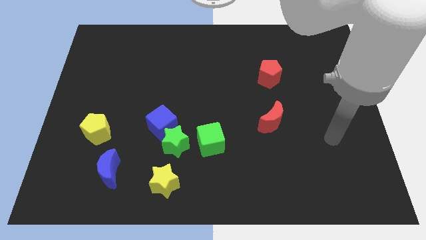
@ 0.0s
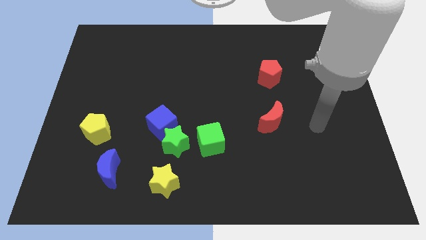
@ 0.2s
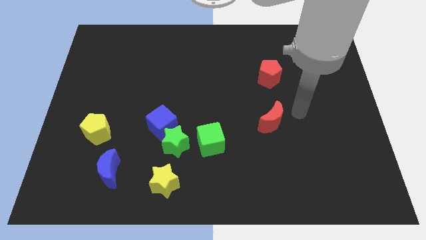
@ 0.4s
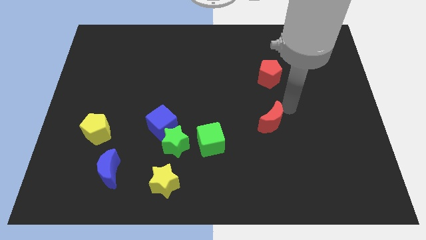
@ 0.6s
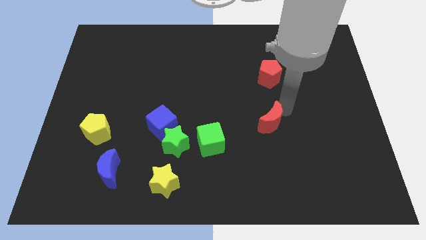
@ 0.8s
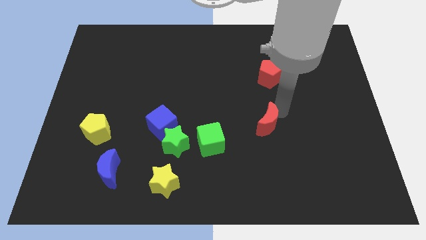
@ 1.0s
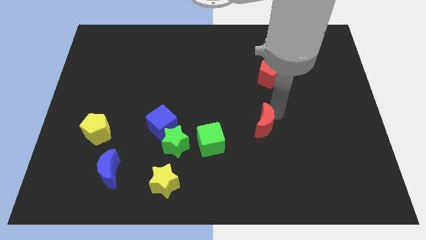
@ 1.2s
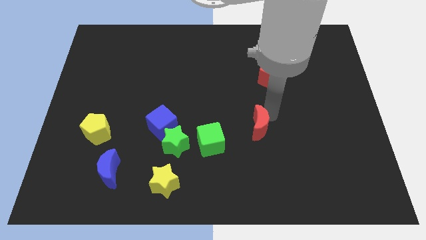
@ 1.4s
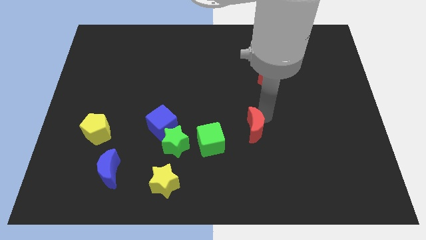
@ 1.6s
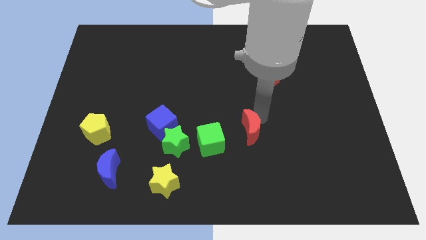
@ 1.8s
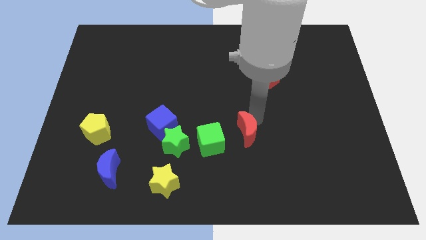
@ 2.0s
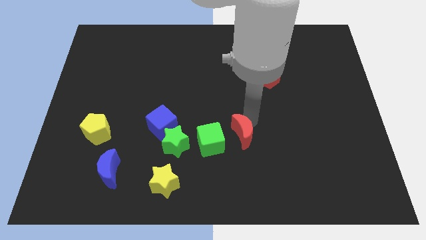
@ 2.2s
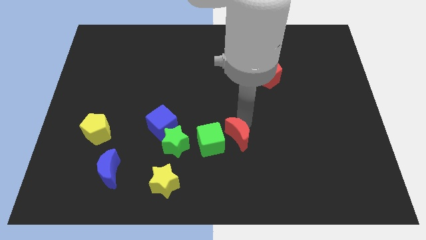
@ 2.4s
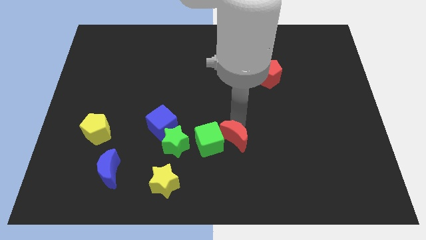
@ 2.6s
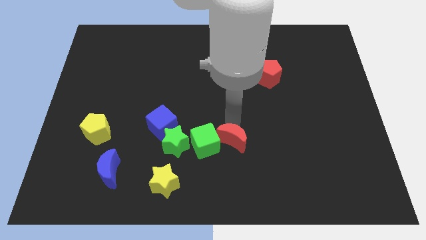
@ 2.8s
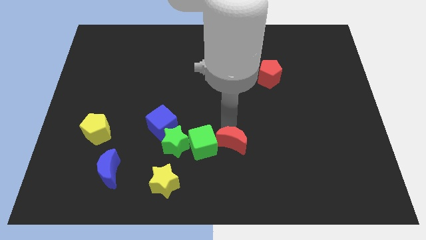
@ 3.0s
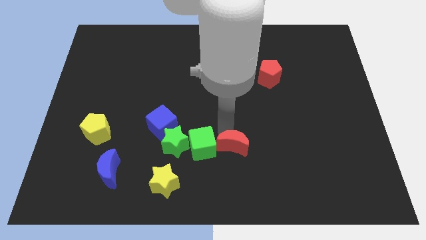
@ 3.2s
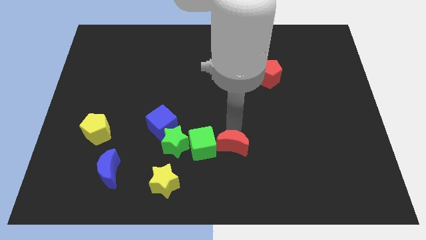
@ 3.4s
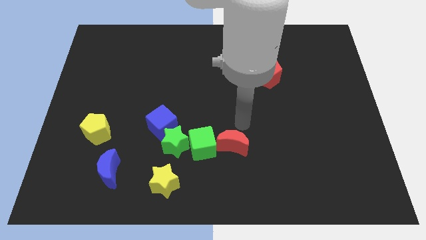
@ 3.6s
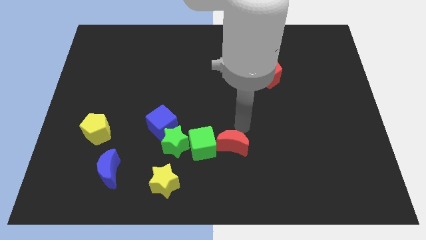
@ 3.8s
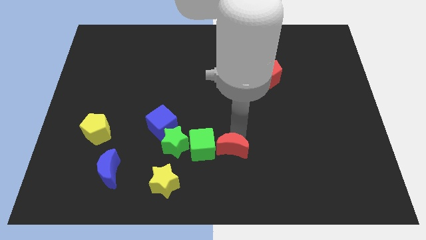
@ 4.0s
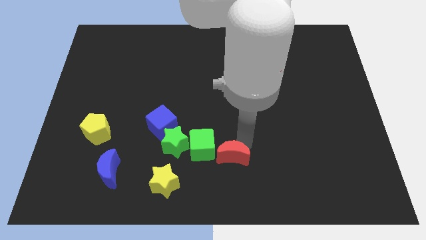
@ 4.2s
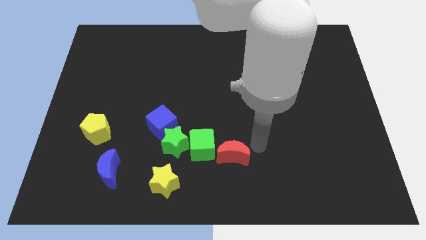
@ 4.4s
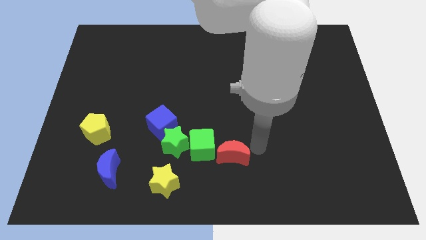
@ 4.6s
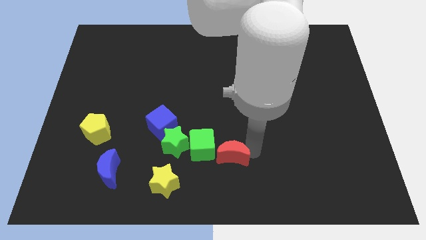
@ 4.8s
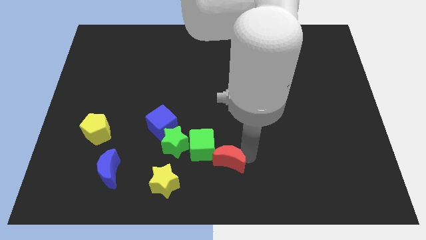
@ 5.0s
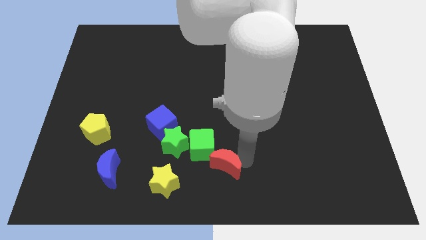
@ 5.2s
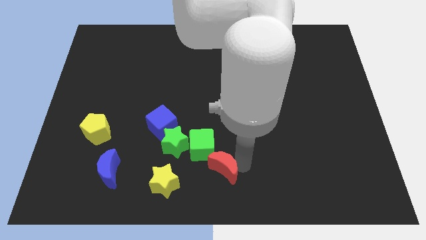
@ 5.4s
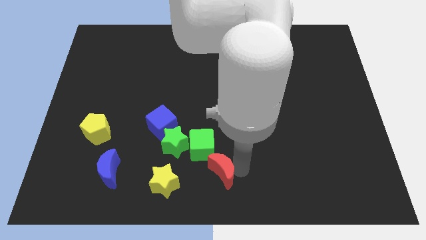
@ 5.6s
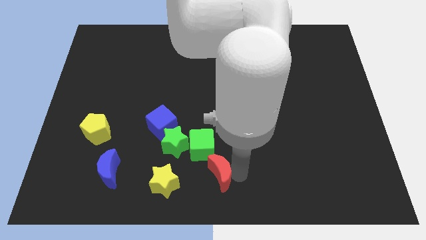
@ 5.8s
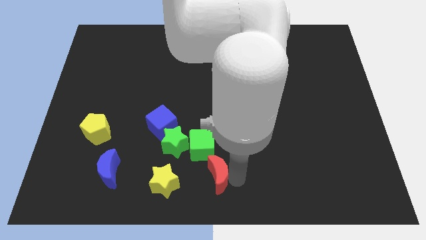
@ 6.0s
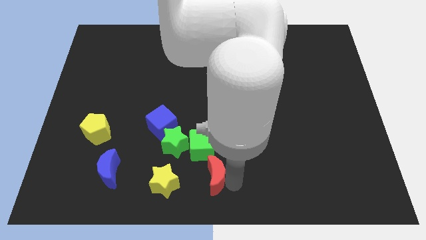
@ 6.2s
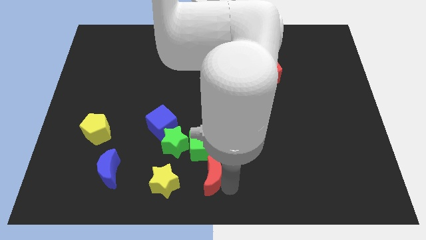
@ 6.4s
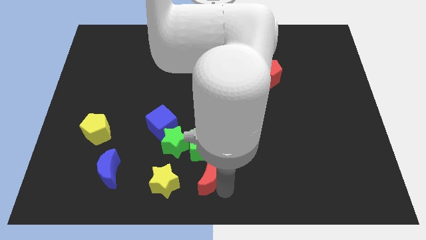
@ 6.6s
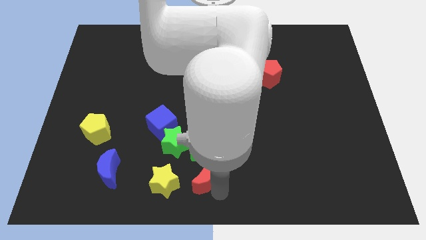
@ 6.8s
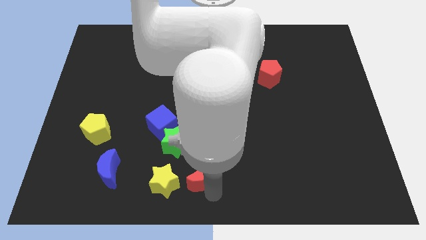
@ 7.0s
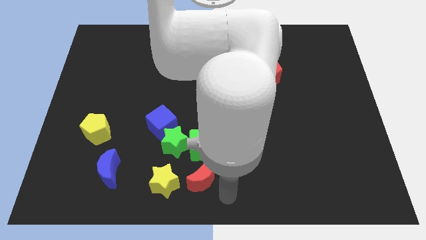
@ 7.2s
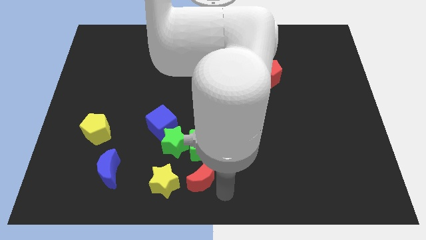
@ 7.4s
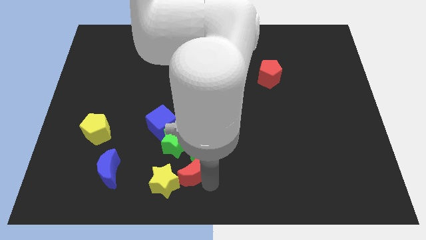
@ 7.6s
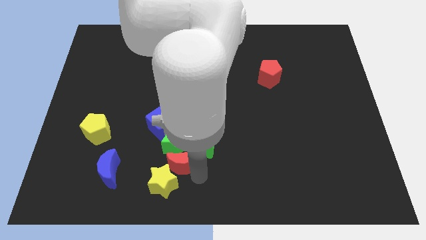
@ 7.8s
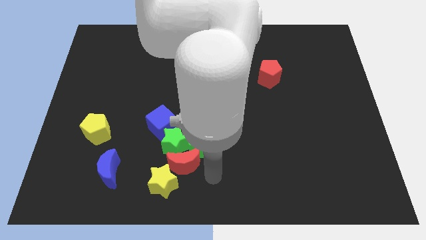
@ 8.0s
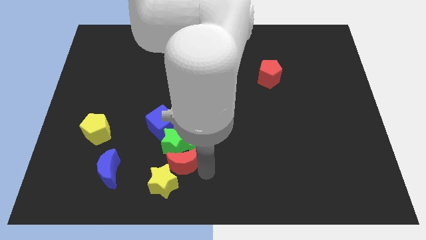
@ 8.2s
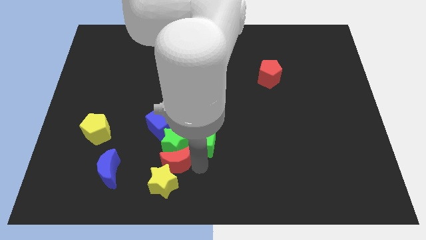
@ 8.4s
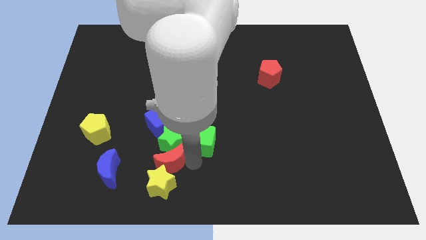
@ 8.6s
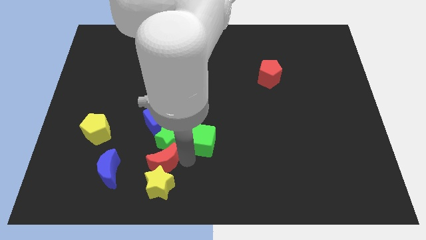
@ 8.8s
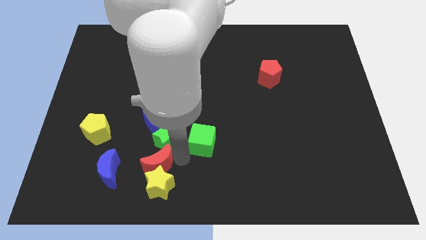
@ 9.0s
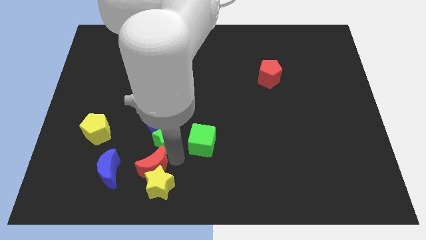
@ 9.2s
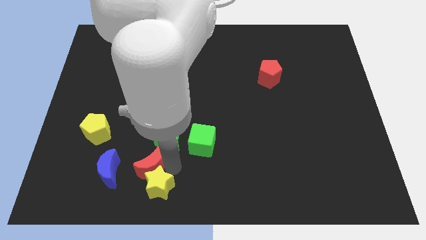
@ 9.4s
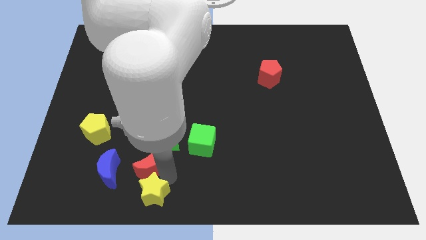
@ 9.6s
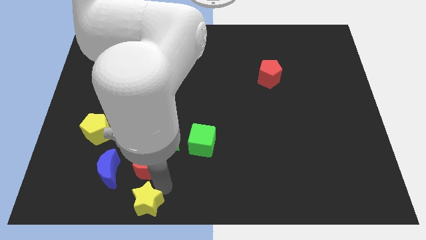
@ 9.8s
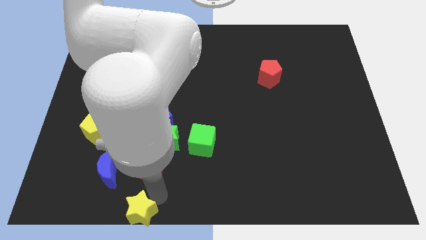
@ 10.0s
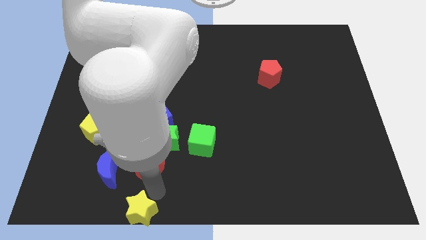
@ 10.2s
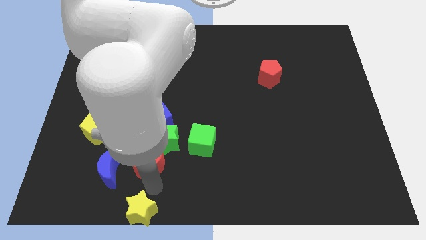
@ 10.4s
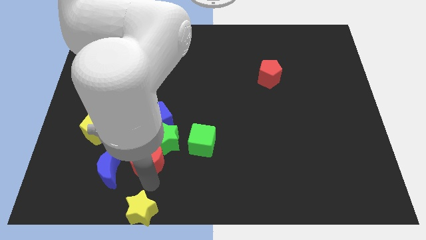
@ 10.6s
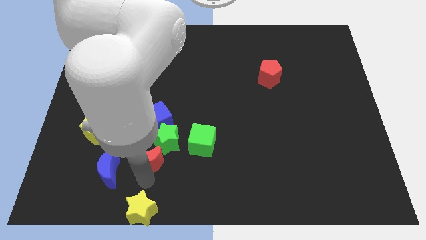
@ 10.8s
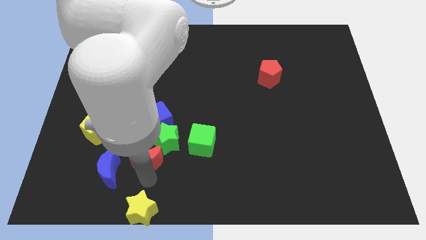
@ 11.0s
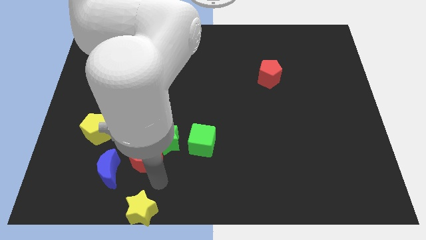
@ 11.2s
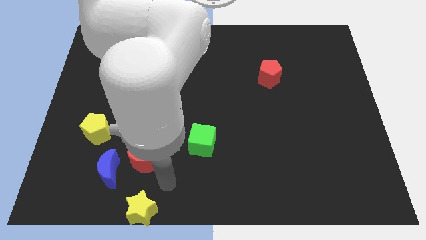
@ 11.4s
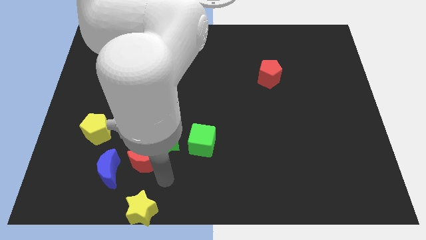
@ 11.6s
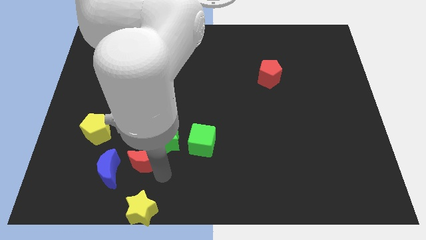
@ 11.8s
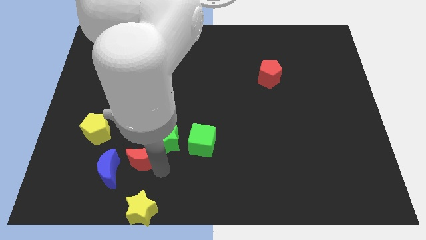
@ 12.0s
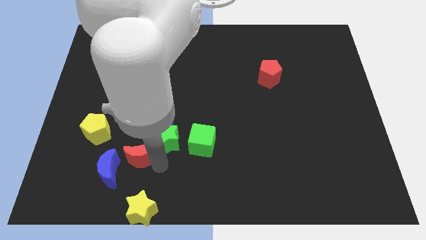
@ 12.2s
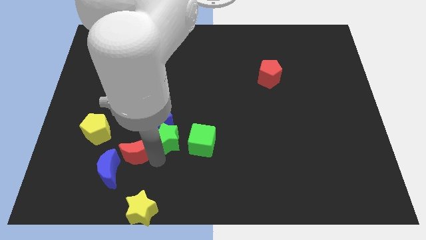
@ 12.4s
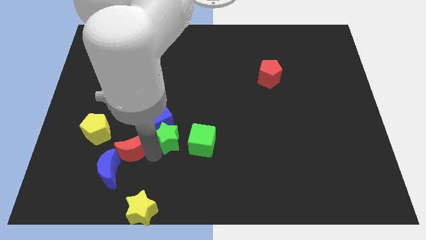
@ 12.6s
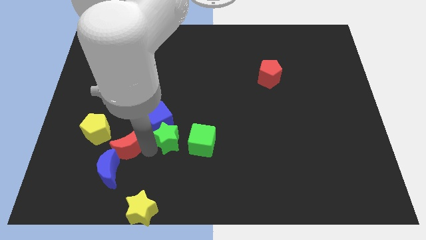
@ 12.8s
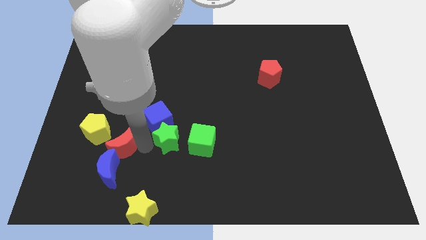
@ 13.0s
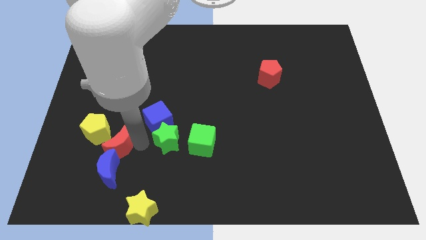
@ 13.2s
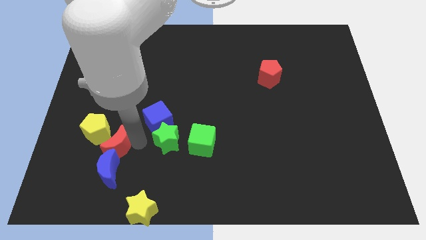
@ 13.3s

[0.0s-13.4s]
put the red moon to the top left of the blue moon
